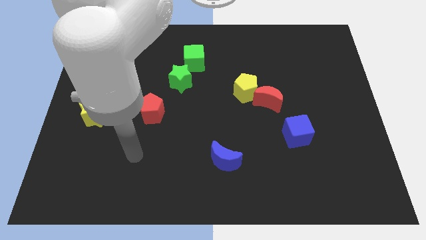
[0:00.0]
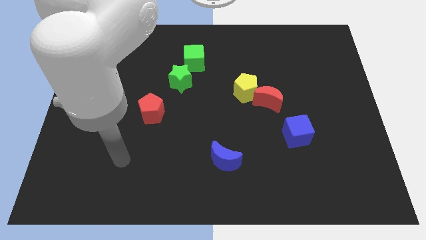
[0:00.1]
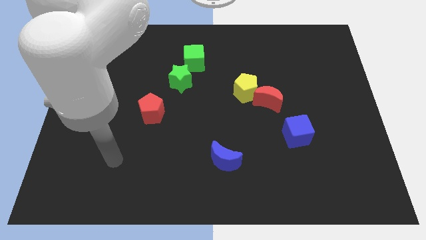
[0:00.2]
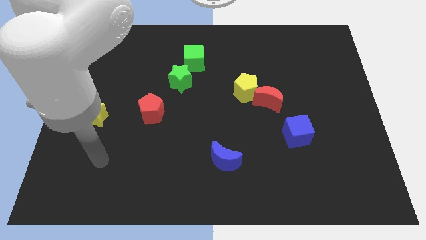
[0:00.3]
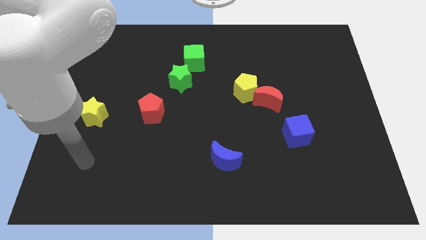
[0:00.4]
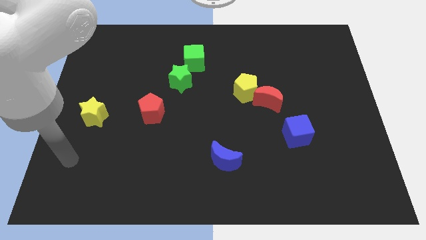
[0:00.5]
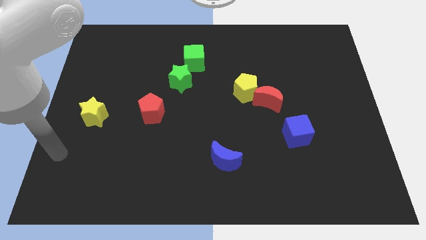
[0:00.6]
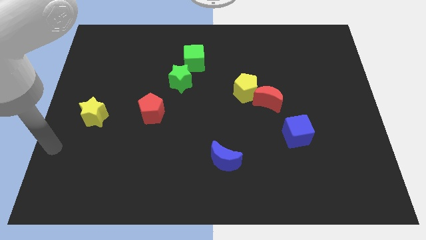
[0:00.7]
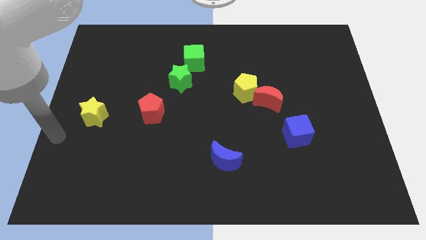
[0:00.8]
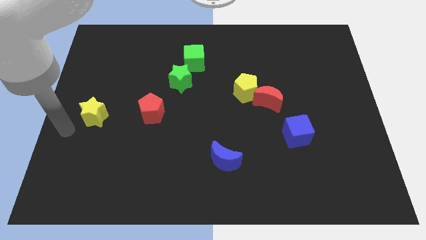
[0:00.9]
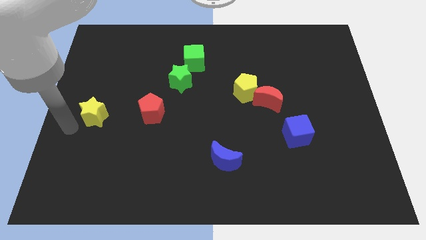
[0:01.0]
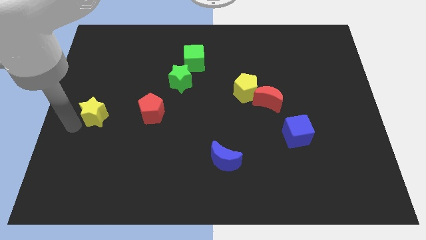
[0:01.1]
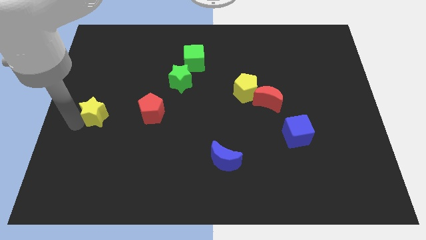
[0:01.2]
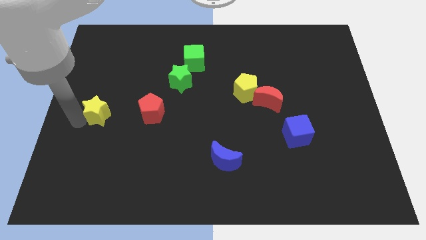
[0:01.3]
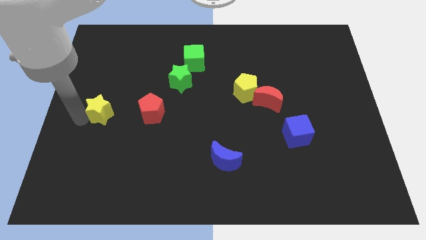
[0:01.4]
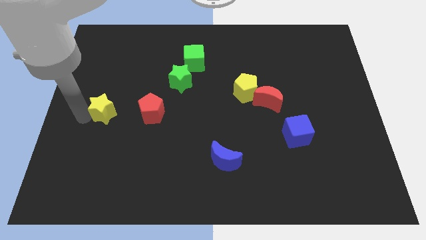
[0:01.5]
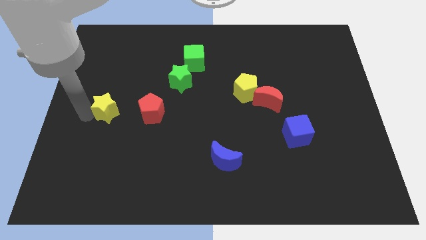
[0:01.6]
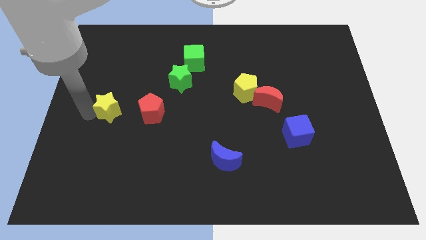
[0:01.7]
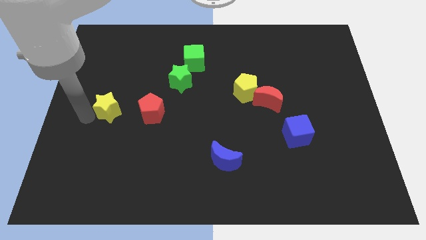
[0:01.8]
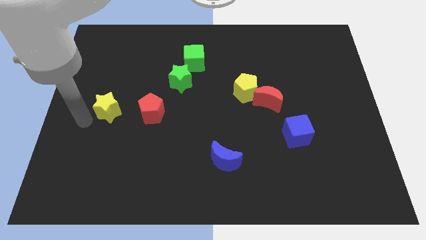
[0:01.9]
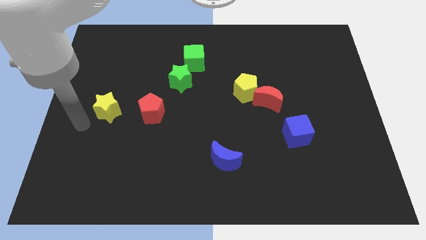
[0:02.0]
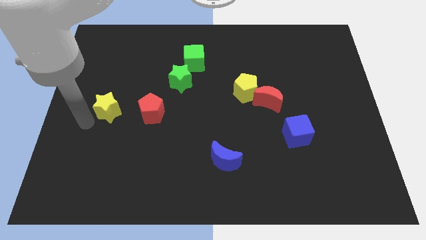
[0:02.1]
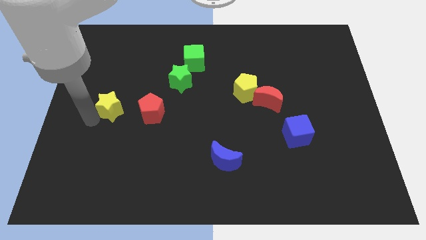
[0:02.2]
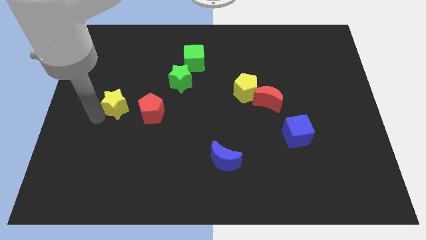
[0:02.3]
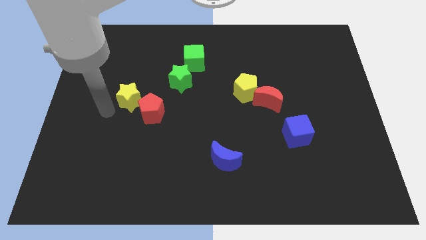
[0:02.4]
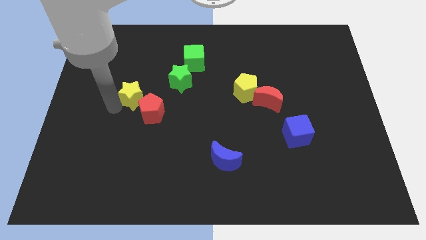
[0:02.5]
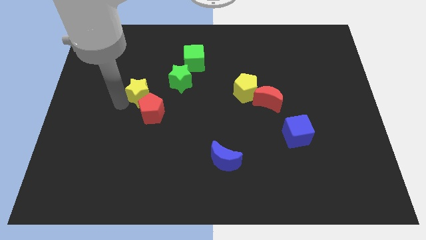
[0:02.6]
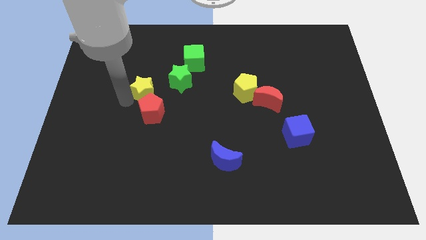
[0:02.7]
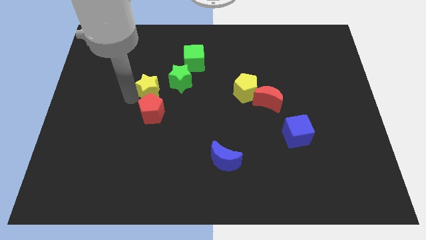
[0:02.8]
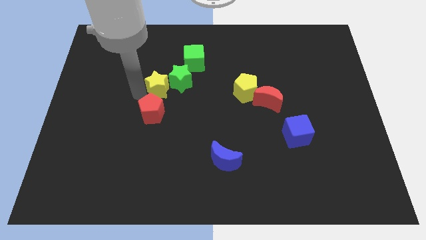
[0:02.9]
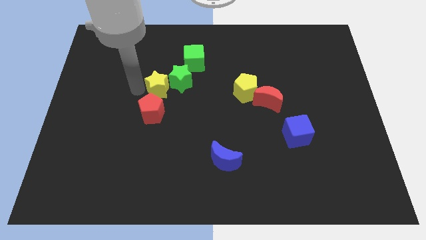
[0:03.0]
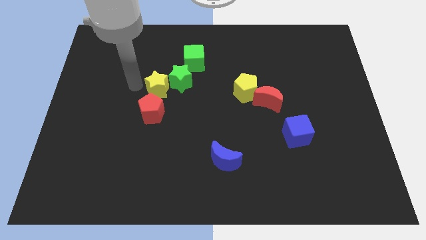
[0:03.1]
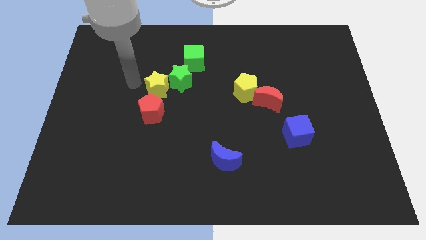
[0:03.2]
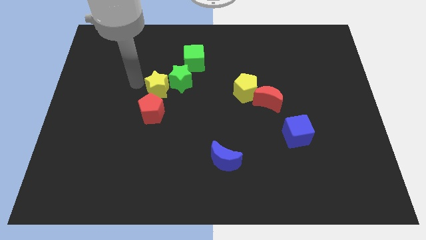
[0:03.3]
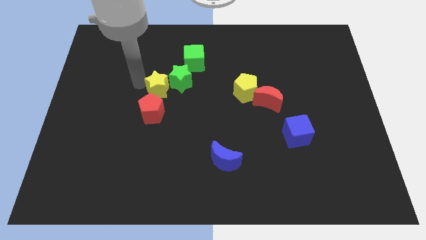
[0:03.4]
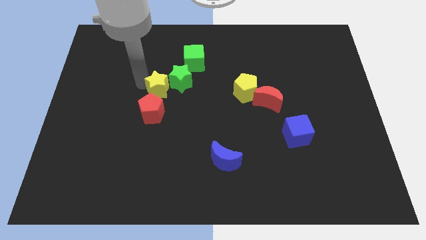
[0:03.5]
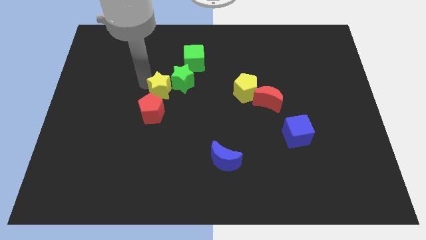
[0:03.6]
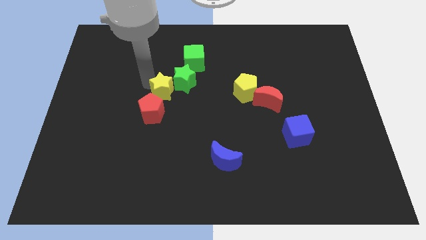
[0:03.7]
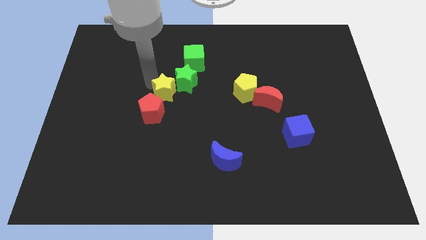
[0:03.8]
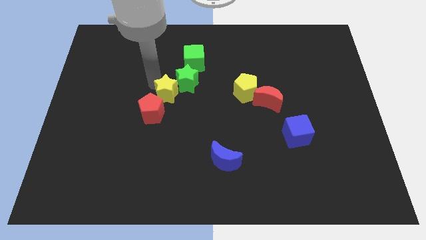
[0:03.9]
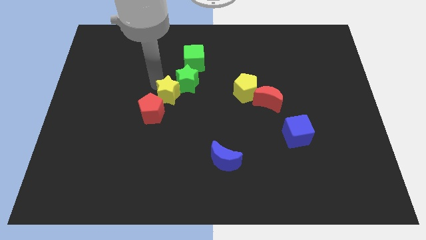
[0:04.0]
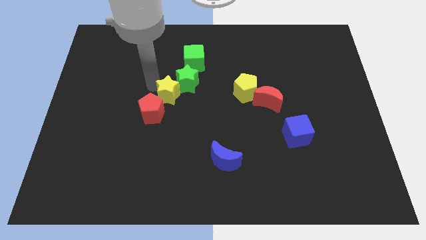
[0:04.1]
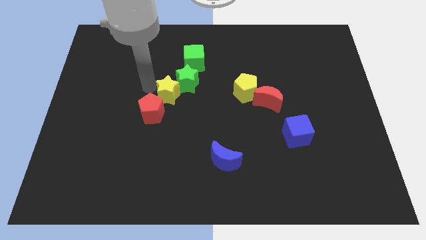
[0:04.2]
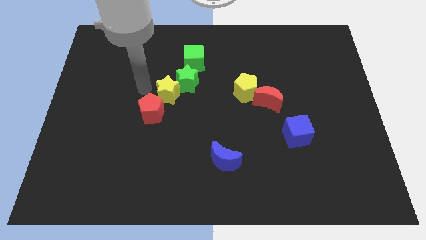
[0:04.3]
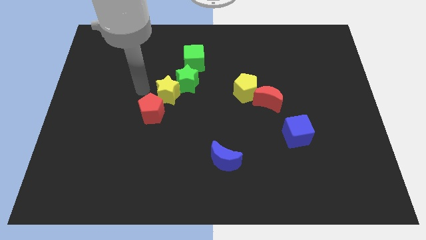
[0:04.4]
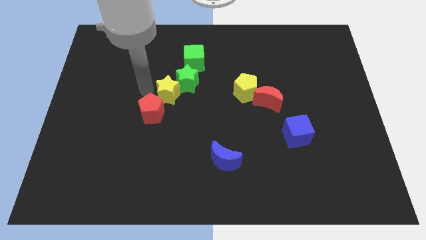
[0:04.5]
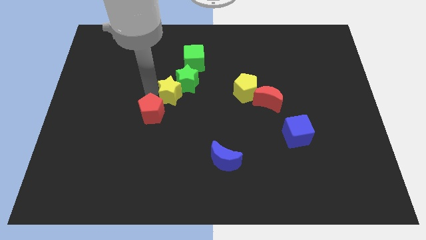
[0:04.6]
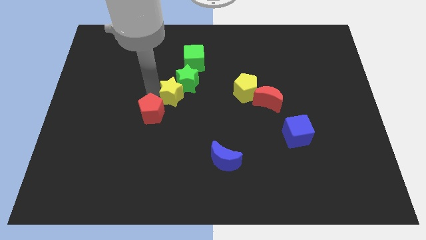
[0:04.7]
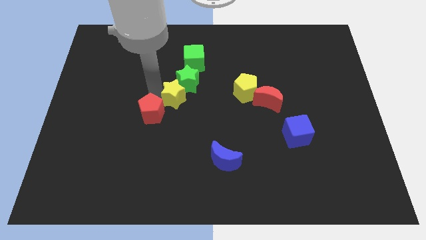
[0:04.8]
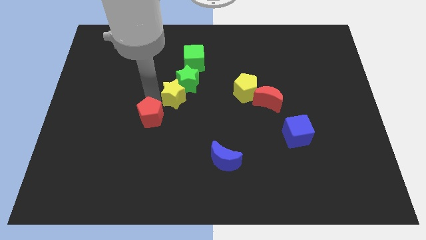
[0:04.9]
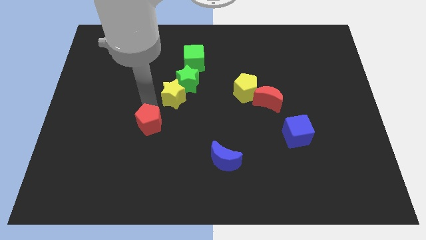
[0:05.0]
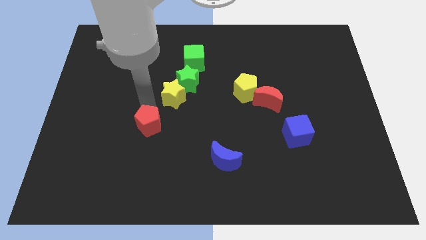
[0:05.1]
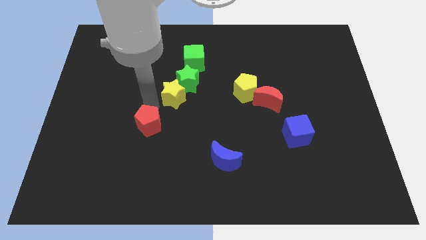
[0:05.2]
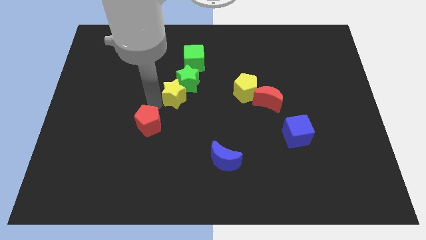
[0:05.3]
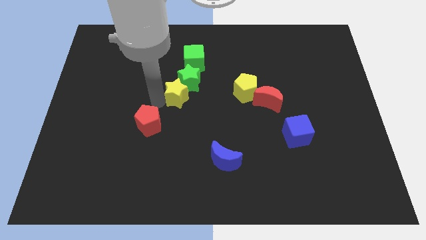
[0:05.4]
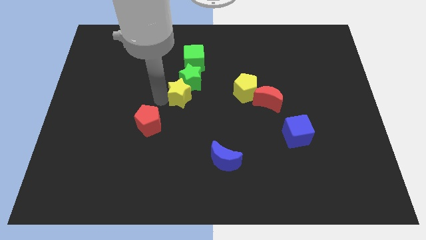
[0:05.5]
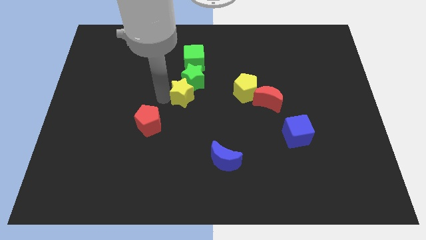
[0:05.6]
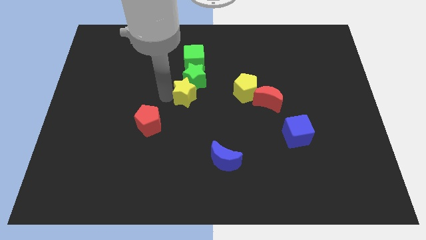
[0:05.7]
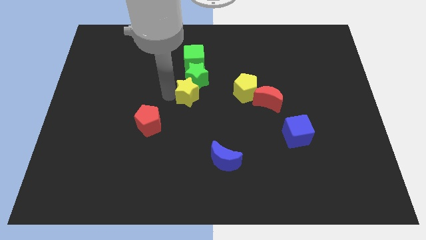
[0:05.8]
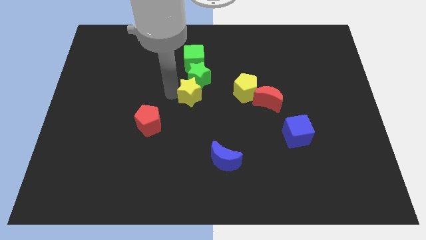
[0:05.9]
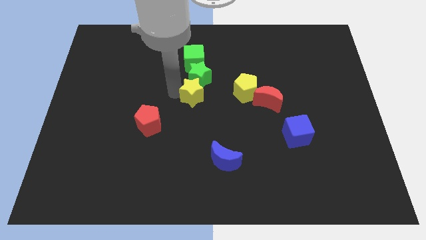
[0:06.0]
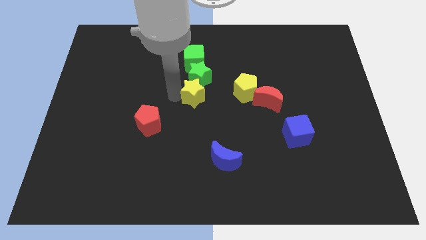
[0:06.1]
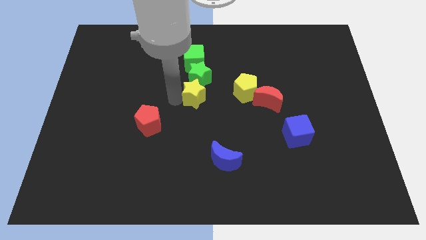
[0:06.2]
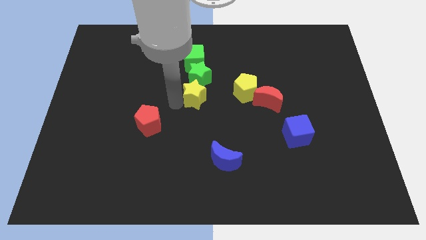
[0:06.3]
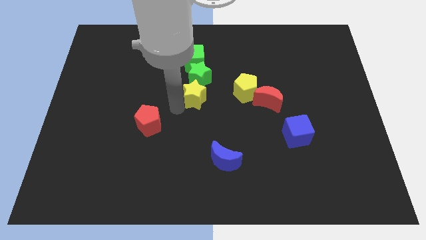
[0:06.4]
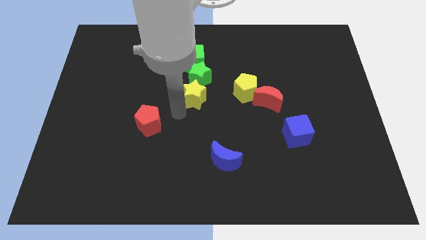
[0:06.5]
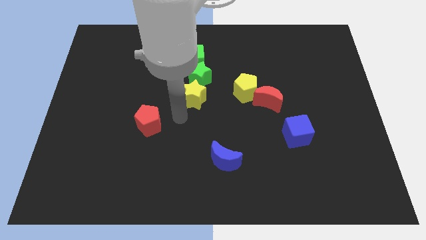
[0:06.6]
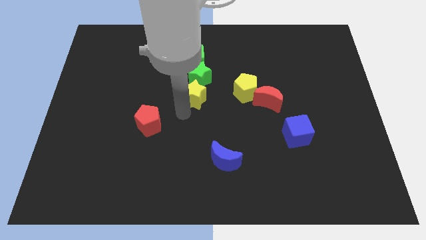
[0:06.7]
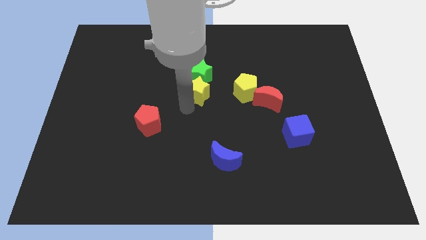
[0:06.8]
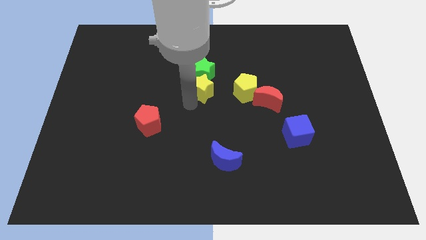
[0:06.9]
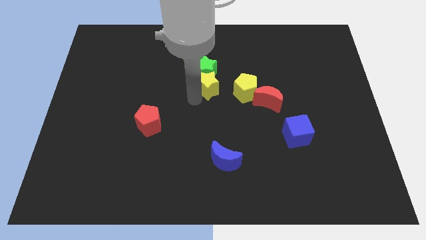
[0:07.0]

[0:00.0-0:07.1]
slide the yellow star to the bottom right of the green cube
